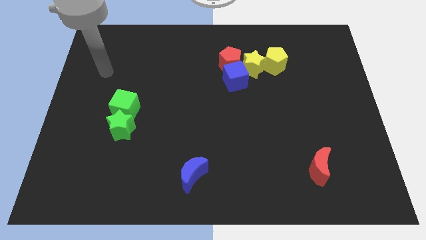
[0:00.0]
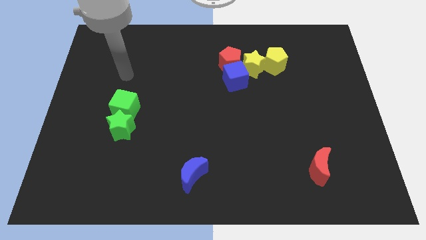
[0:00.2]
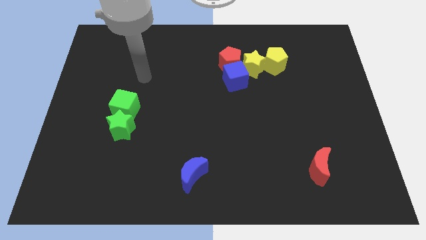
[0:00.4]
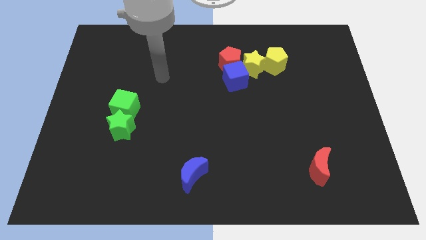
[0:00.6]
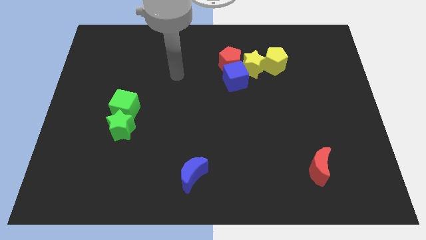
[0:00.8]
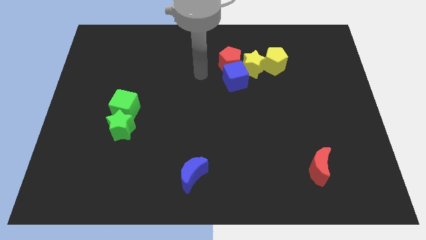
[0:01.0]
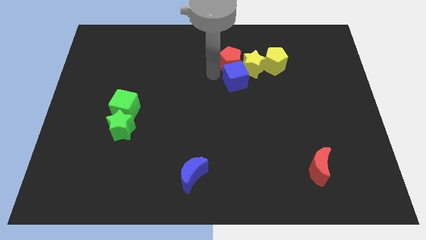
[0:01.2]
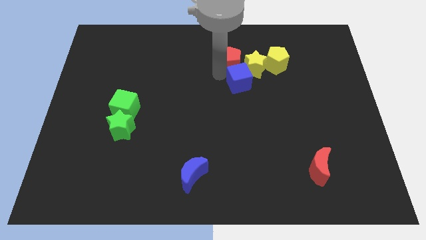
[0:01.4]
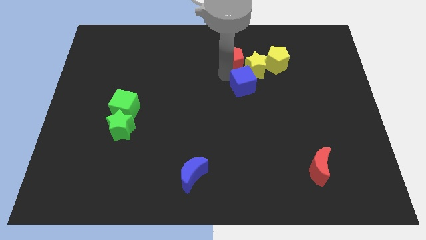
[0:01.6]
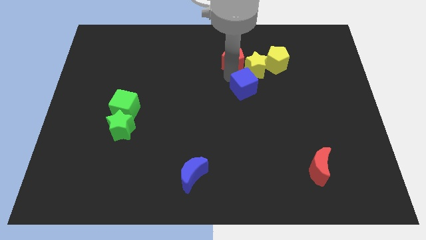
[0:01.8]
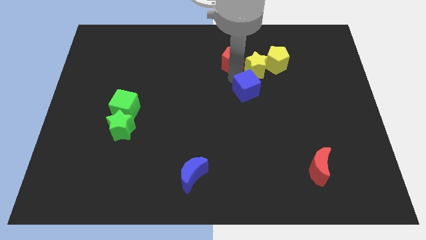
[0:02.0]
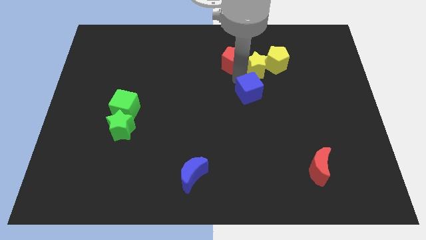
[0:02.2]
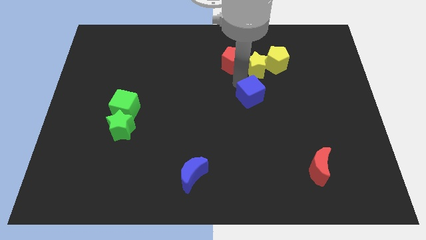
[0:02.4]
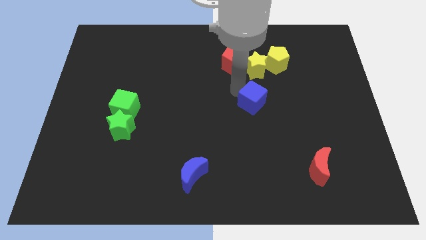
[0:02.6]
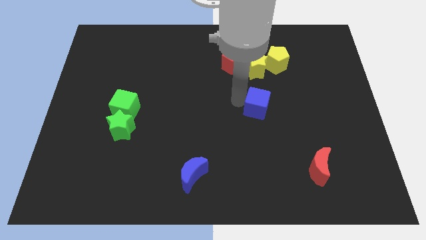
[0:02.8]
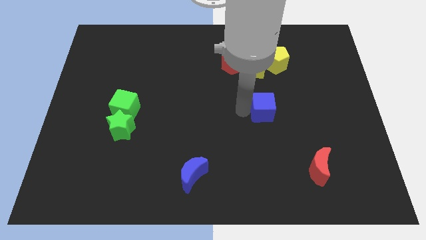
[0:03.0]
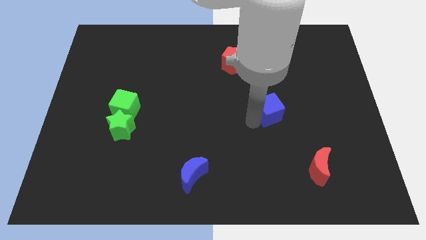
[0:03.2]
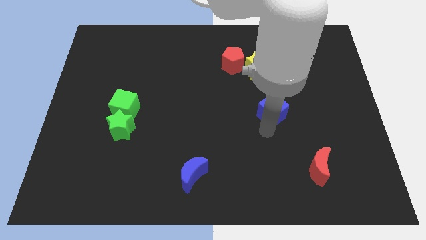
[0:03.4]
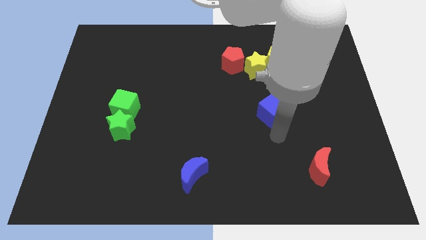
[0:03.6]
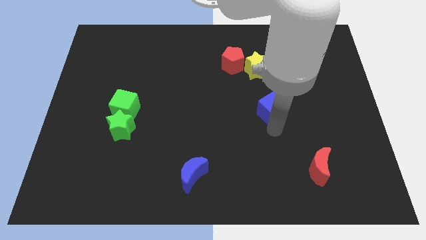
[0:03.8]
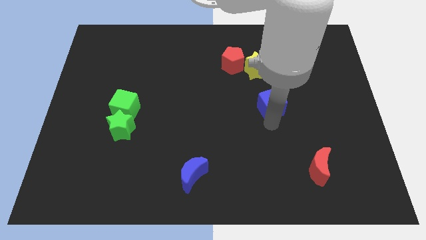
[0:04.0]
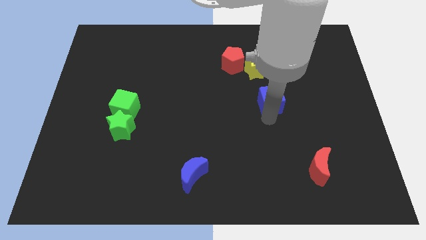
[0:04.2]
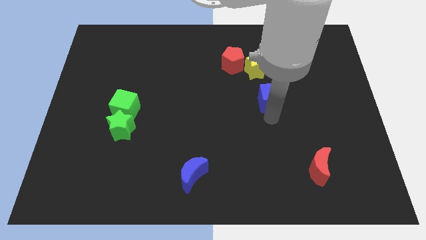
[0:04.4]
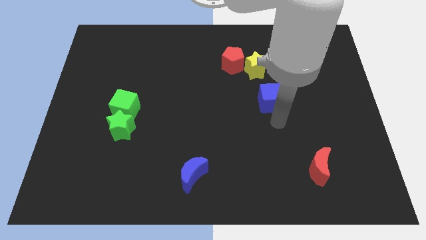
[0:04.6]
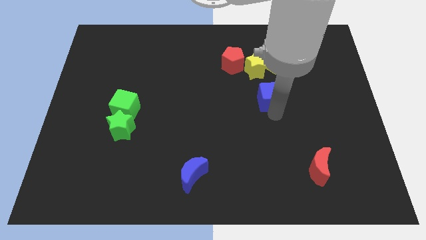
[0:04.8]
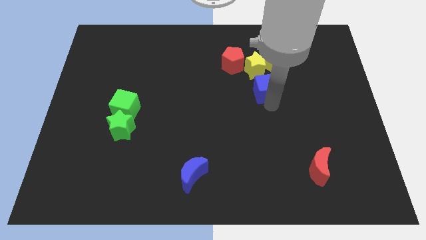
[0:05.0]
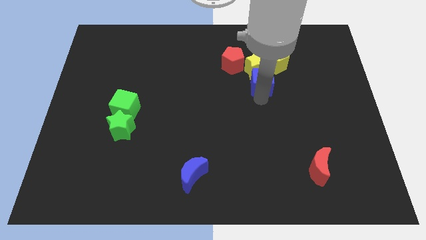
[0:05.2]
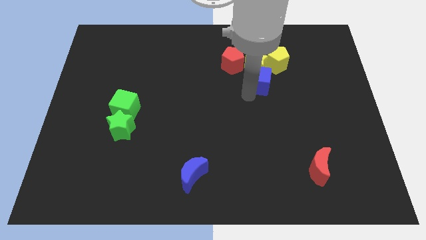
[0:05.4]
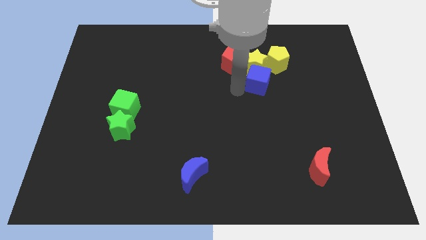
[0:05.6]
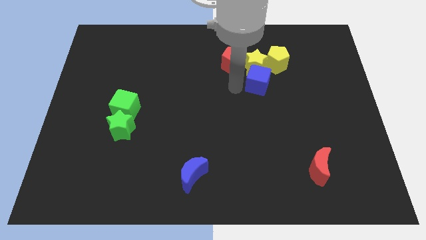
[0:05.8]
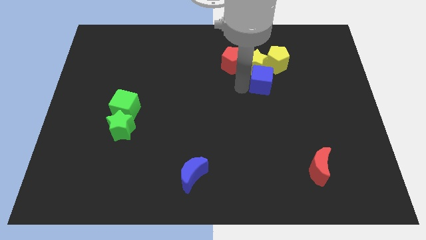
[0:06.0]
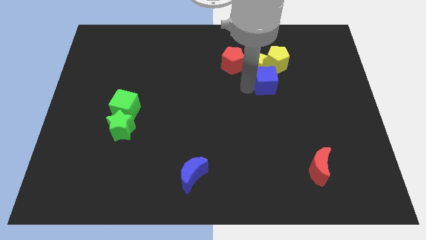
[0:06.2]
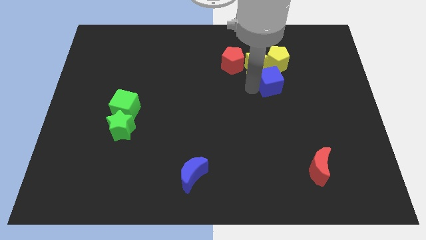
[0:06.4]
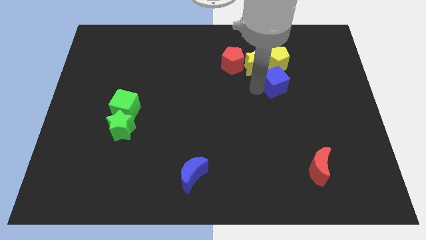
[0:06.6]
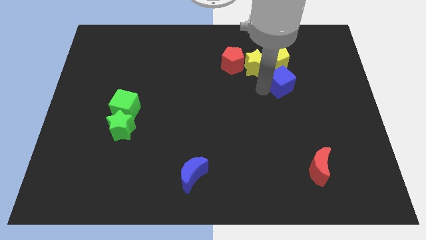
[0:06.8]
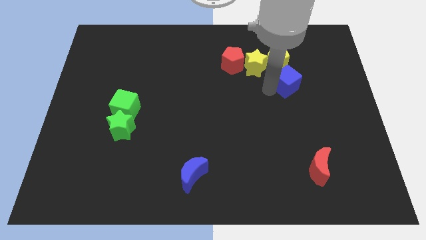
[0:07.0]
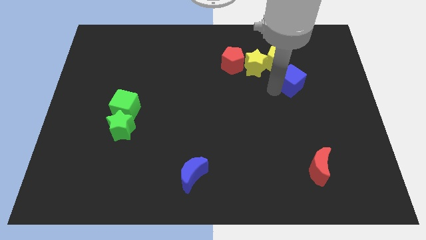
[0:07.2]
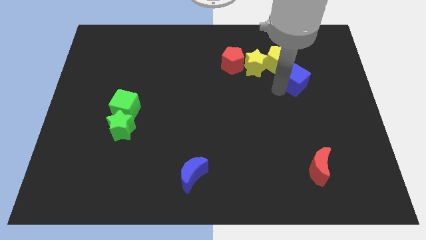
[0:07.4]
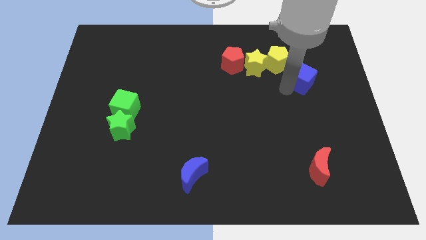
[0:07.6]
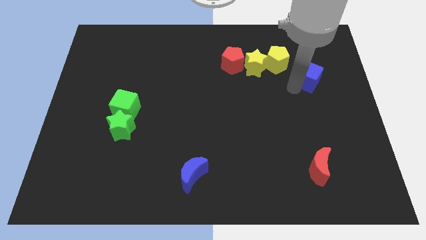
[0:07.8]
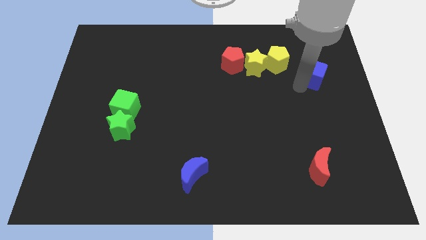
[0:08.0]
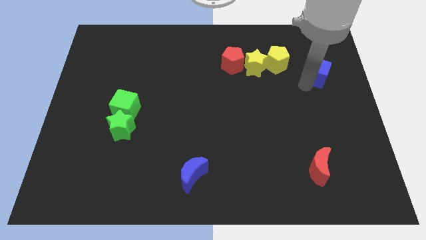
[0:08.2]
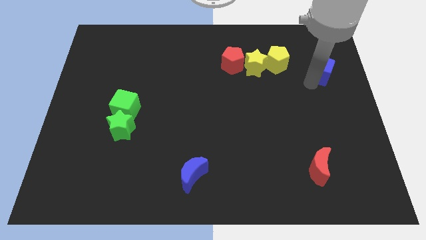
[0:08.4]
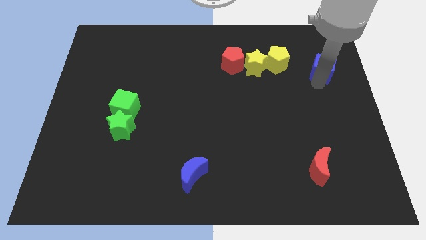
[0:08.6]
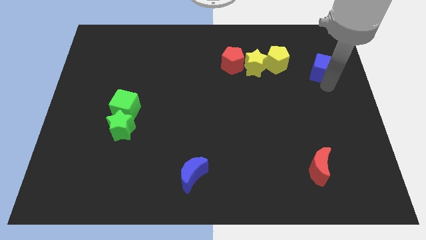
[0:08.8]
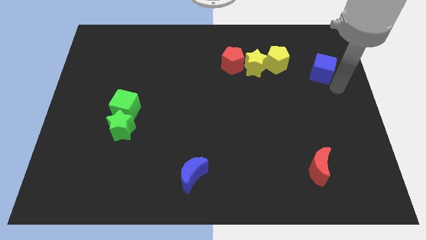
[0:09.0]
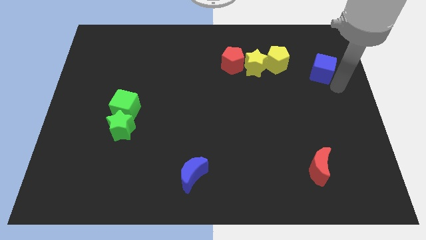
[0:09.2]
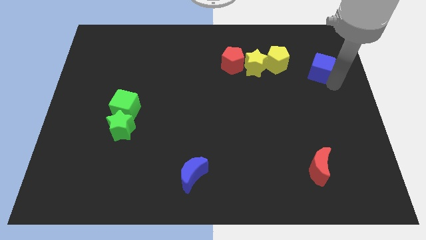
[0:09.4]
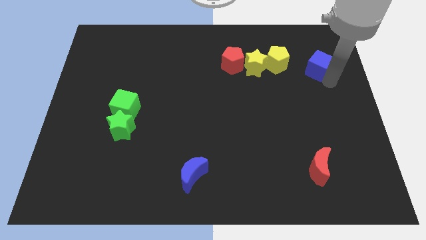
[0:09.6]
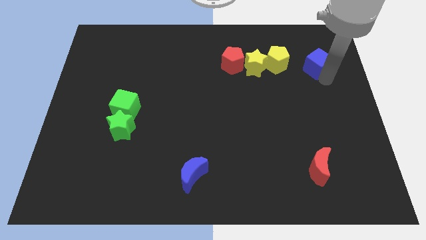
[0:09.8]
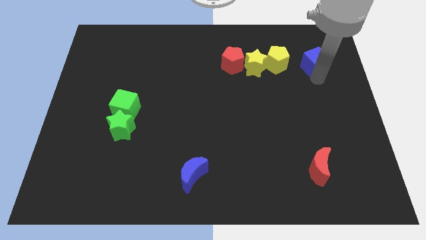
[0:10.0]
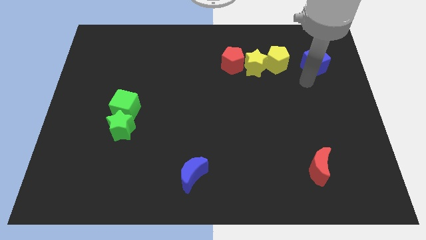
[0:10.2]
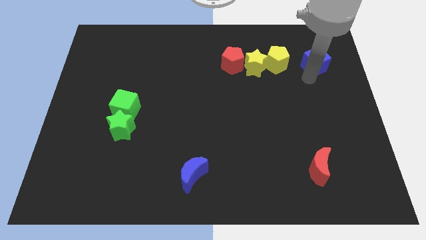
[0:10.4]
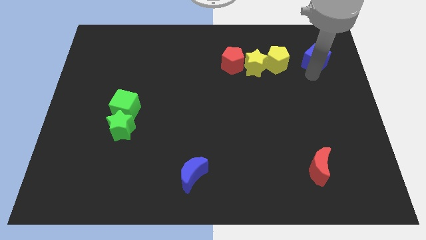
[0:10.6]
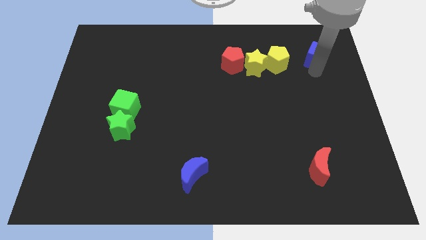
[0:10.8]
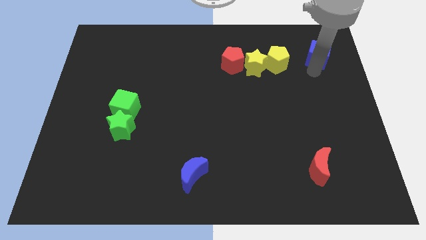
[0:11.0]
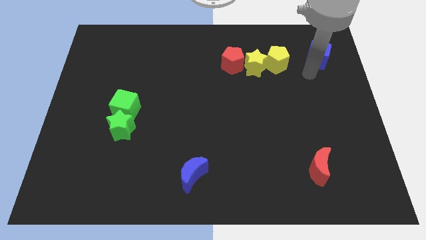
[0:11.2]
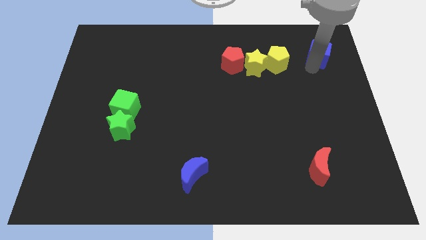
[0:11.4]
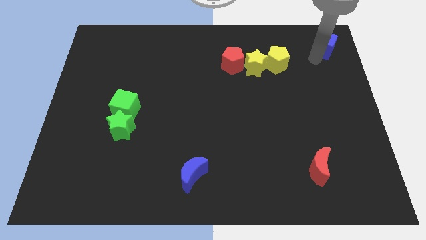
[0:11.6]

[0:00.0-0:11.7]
move the blue cube to the top right
